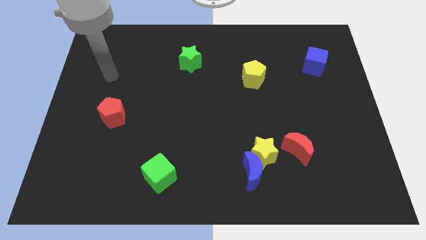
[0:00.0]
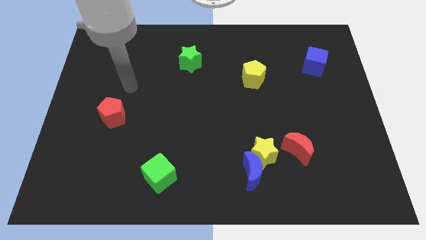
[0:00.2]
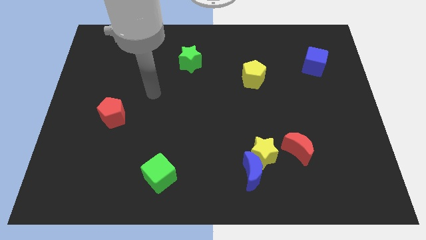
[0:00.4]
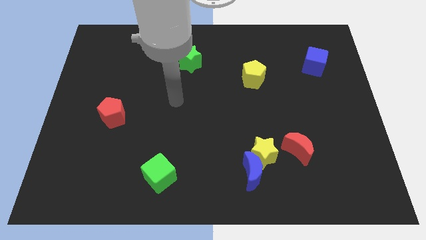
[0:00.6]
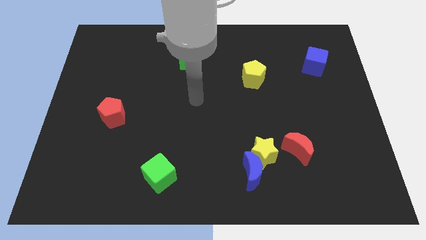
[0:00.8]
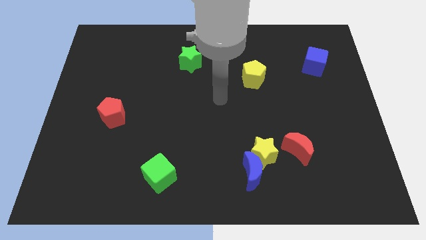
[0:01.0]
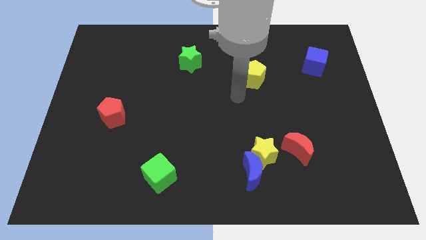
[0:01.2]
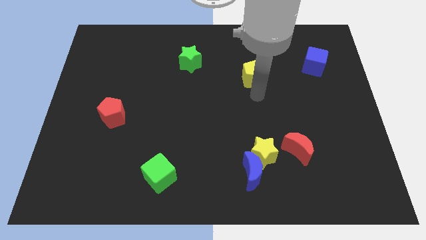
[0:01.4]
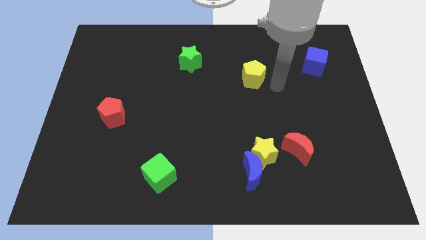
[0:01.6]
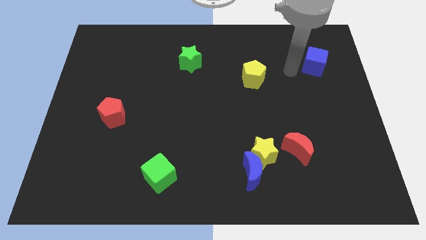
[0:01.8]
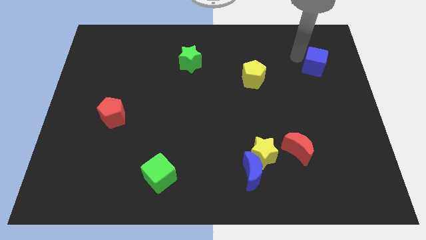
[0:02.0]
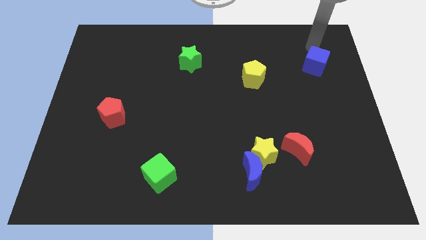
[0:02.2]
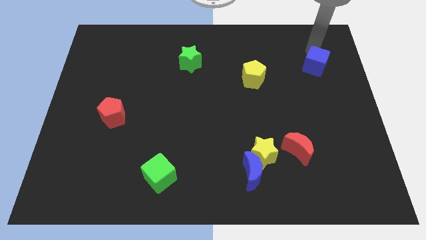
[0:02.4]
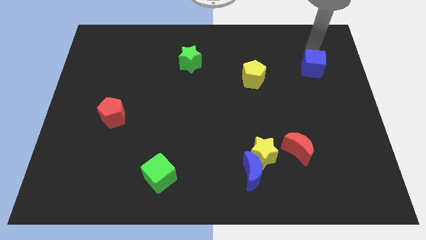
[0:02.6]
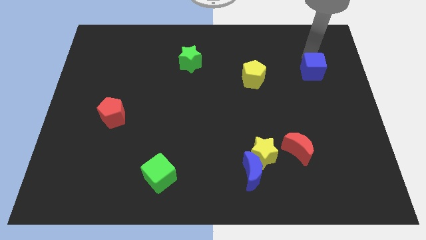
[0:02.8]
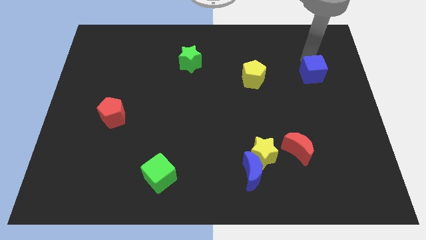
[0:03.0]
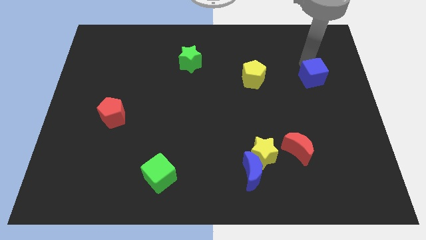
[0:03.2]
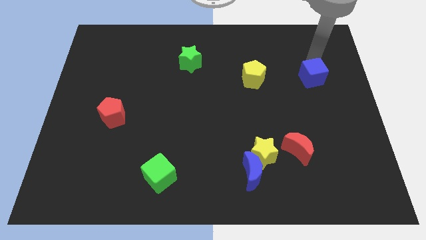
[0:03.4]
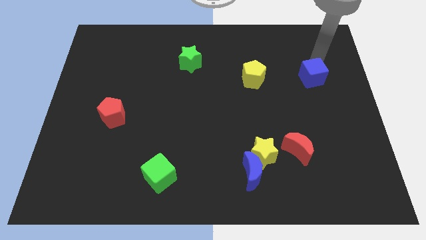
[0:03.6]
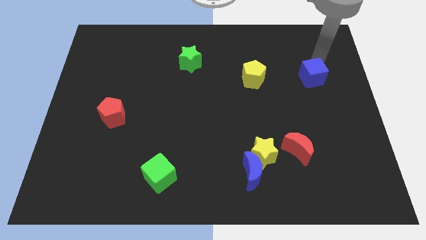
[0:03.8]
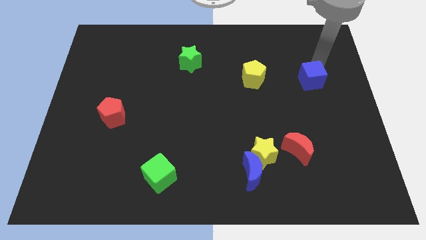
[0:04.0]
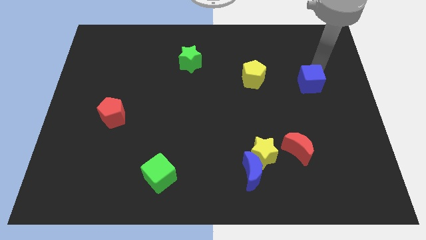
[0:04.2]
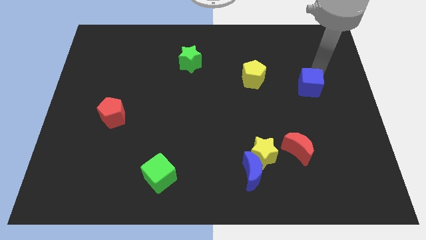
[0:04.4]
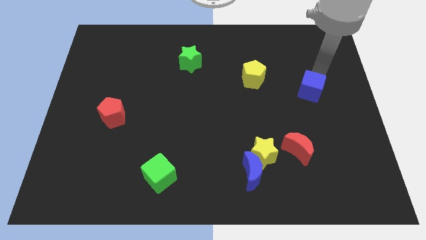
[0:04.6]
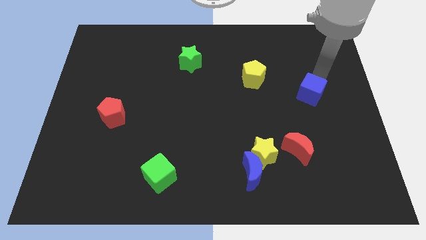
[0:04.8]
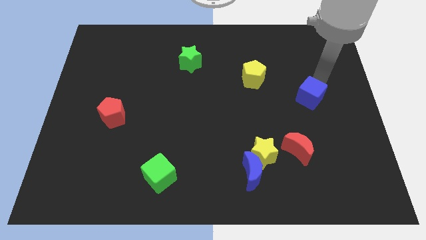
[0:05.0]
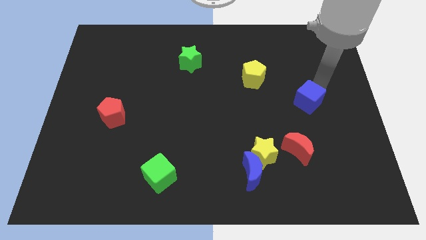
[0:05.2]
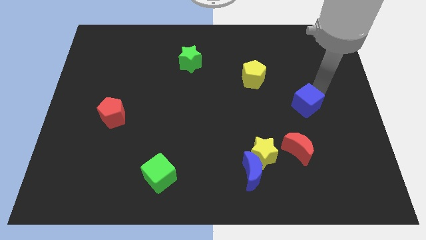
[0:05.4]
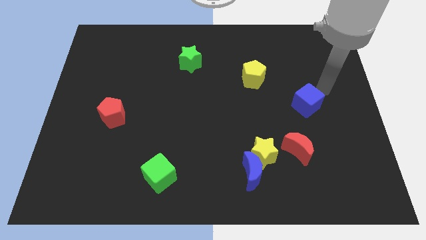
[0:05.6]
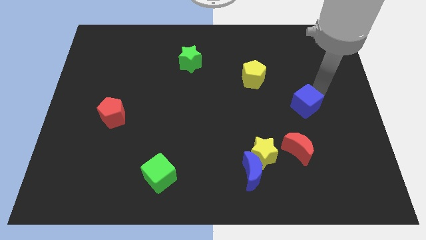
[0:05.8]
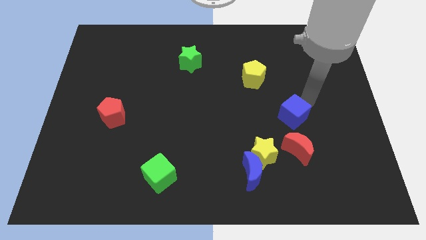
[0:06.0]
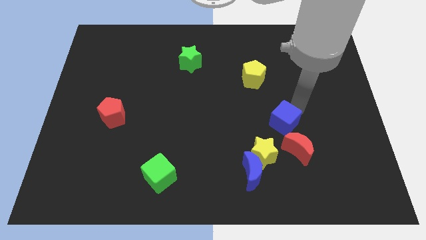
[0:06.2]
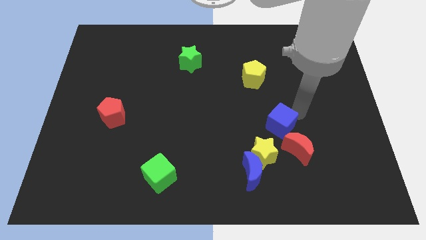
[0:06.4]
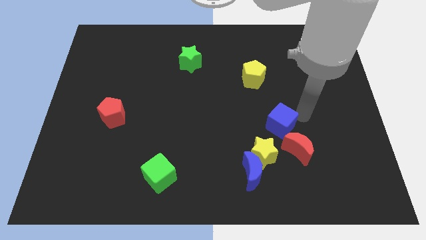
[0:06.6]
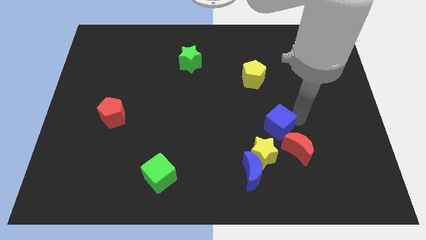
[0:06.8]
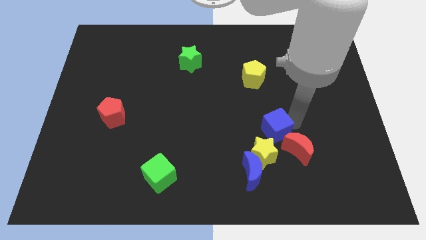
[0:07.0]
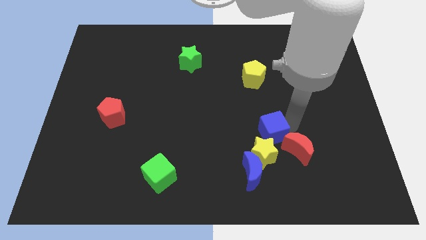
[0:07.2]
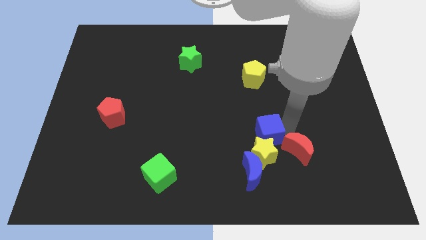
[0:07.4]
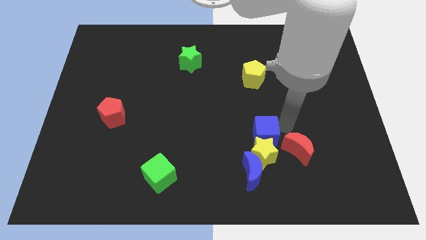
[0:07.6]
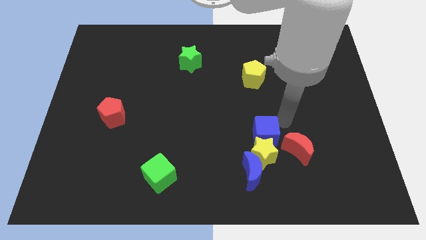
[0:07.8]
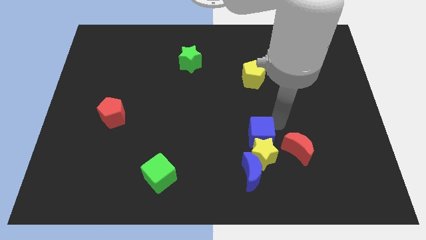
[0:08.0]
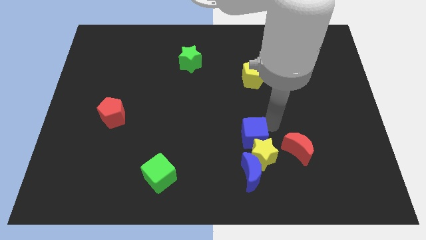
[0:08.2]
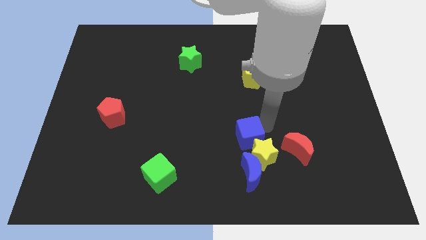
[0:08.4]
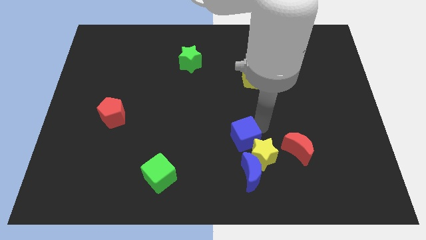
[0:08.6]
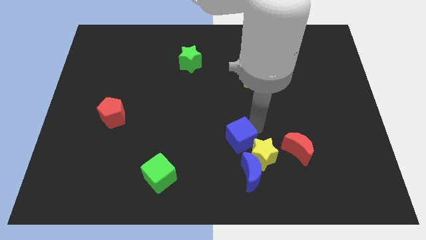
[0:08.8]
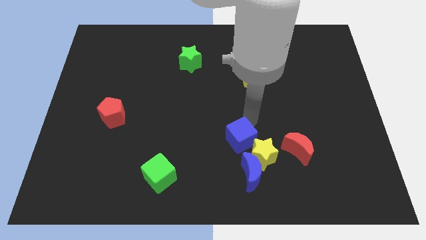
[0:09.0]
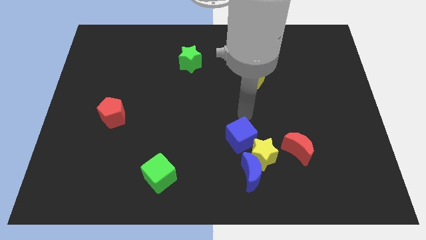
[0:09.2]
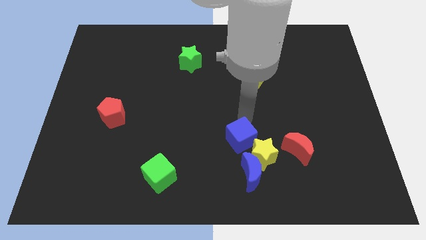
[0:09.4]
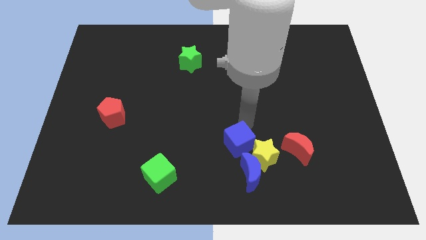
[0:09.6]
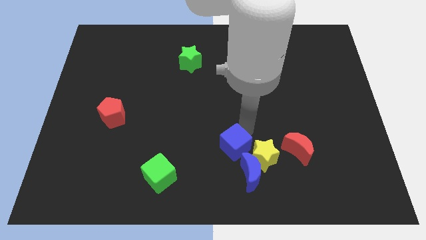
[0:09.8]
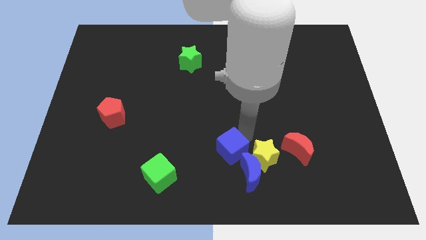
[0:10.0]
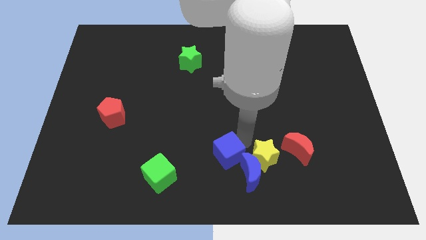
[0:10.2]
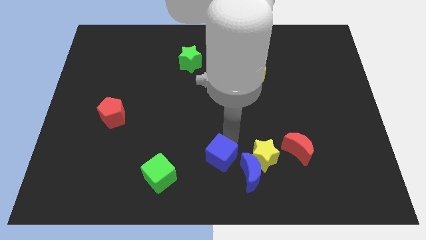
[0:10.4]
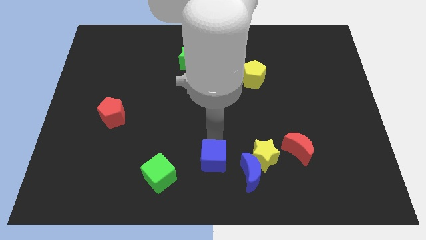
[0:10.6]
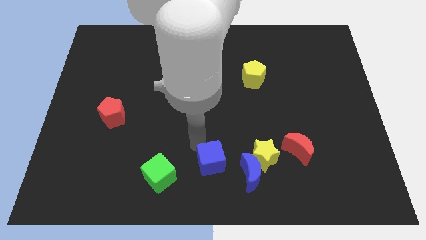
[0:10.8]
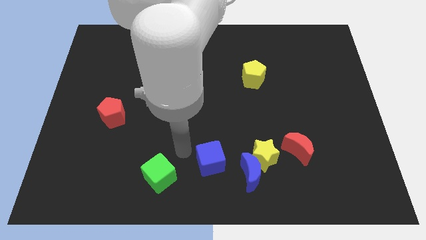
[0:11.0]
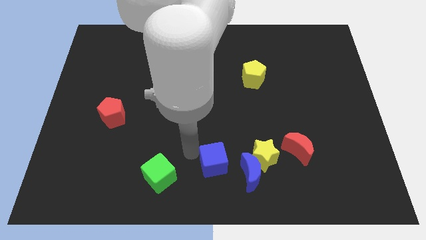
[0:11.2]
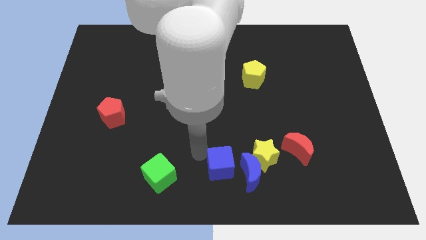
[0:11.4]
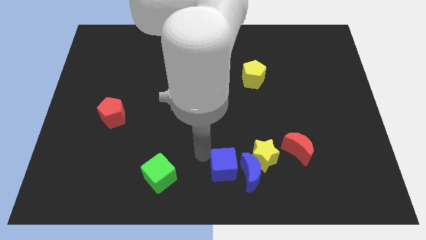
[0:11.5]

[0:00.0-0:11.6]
move the blue cube close to the blue moon

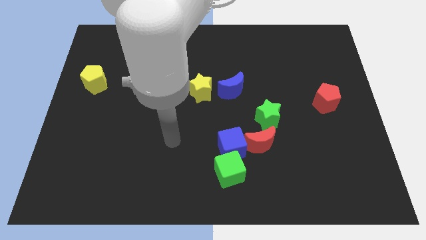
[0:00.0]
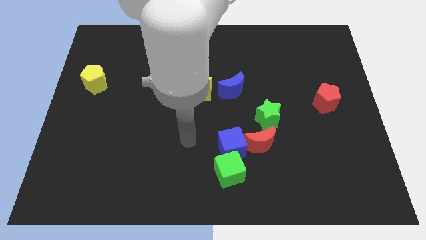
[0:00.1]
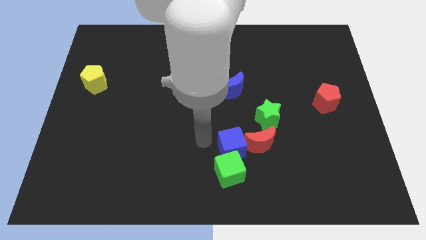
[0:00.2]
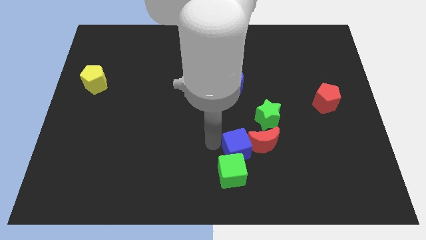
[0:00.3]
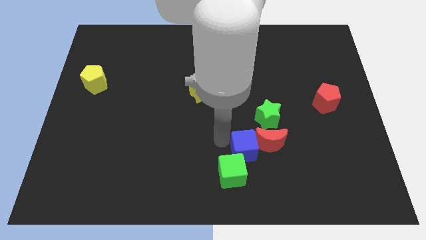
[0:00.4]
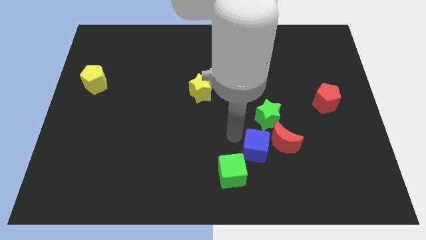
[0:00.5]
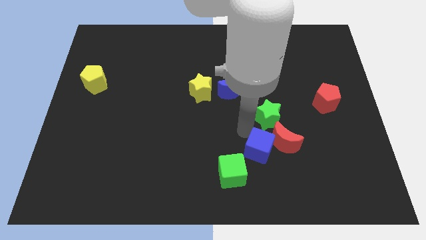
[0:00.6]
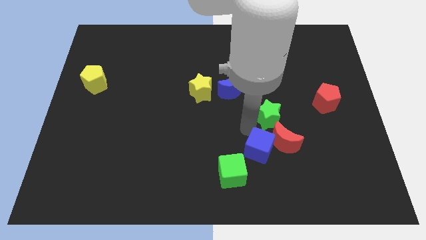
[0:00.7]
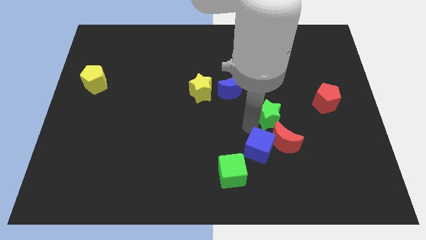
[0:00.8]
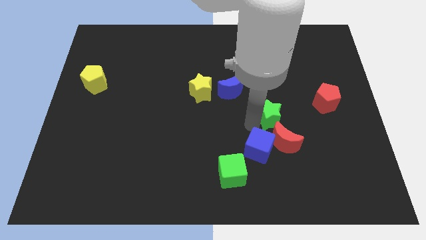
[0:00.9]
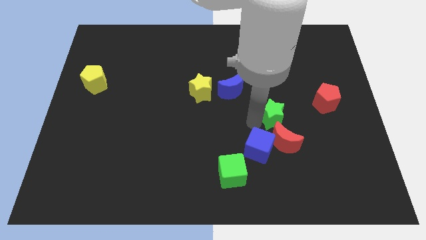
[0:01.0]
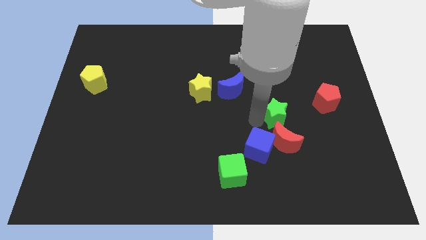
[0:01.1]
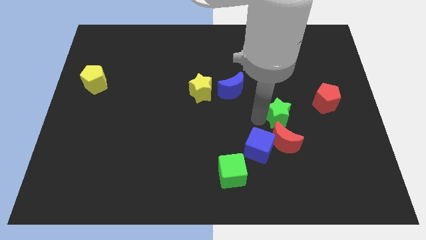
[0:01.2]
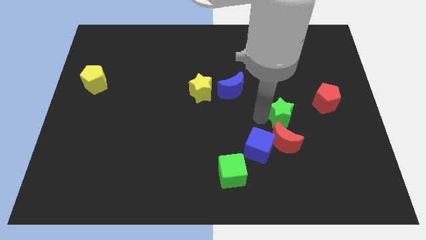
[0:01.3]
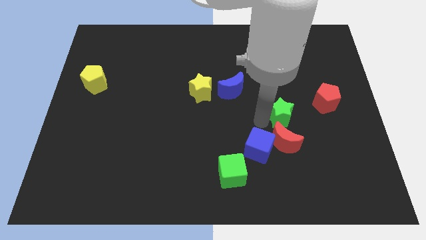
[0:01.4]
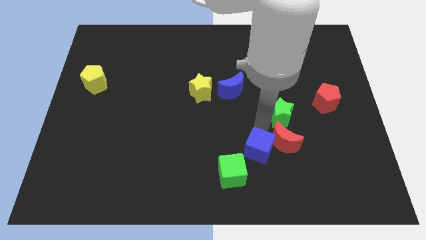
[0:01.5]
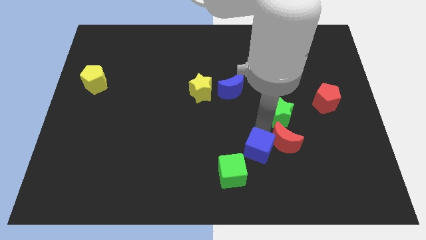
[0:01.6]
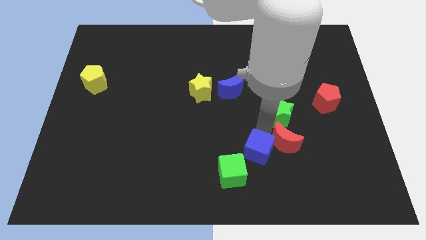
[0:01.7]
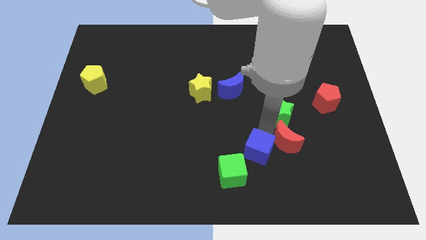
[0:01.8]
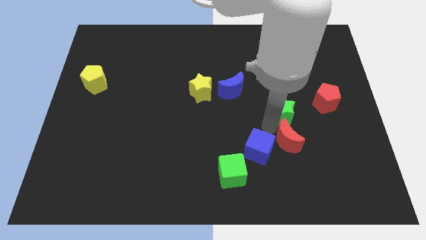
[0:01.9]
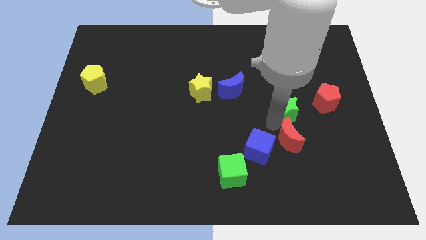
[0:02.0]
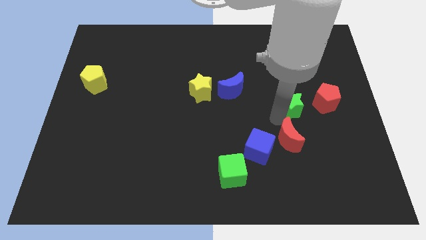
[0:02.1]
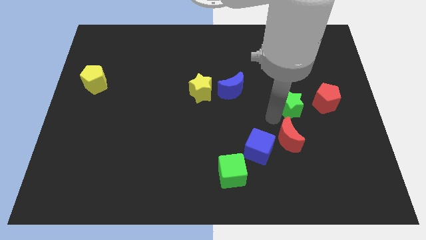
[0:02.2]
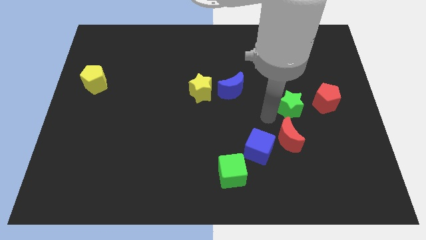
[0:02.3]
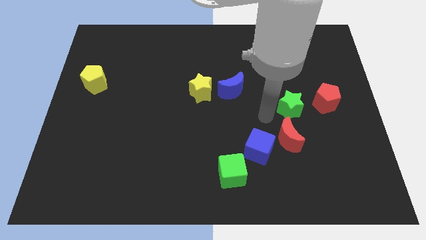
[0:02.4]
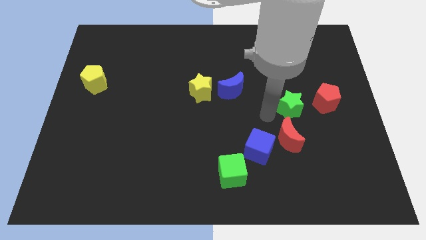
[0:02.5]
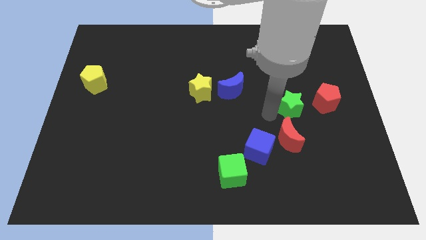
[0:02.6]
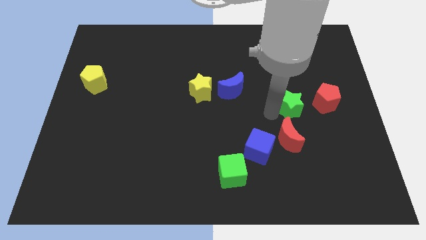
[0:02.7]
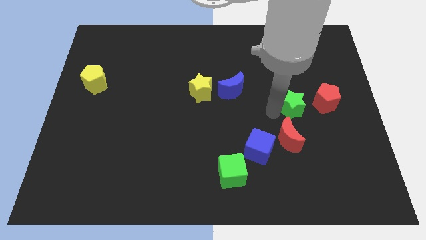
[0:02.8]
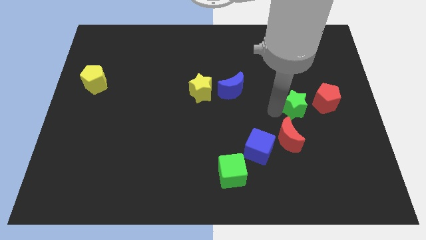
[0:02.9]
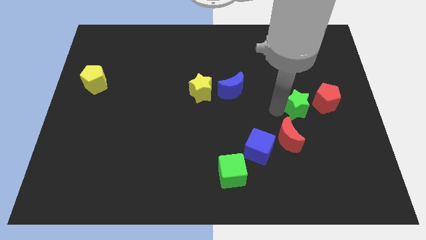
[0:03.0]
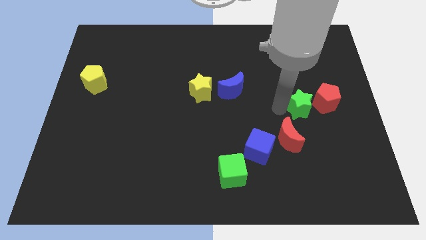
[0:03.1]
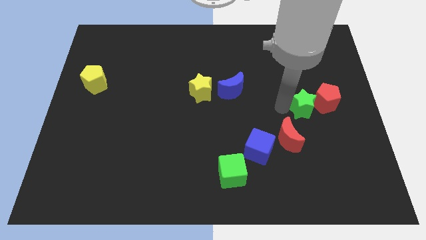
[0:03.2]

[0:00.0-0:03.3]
push the green star towards the red pentagon
